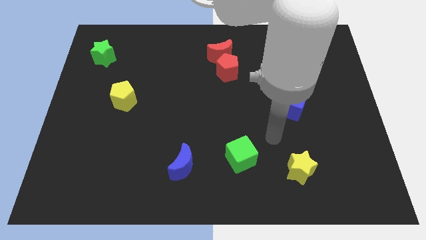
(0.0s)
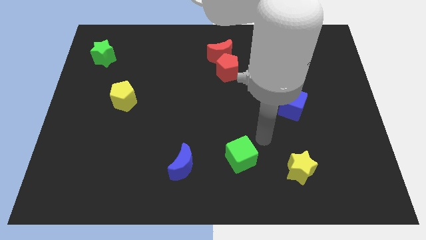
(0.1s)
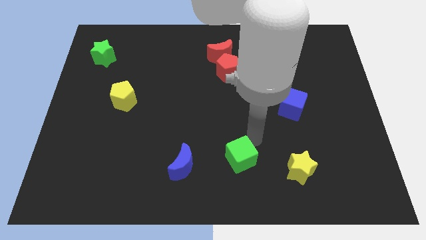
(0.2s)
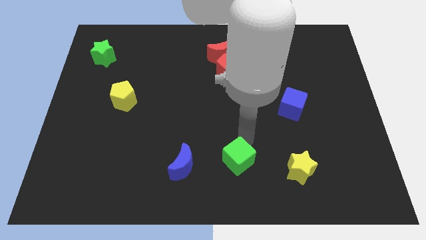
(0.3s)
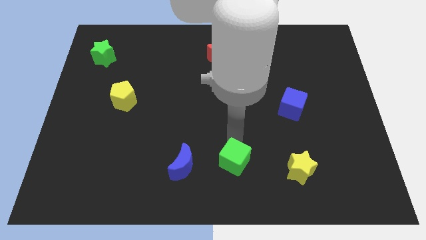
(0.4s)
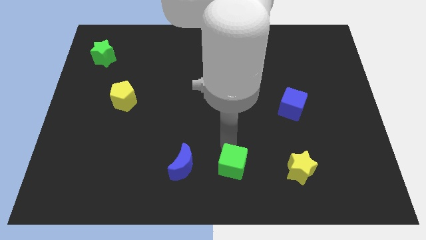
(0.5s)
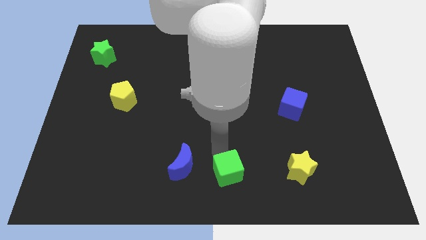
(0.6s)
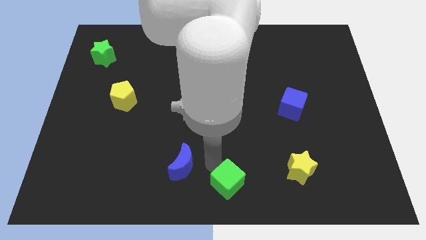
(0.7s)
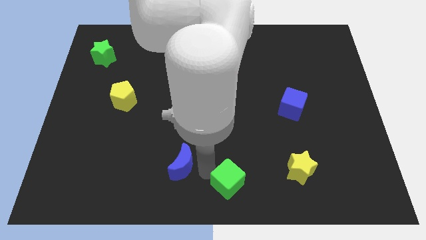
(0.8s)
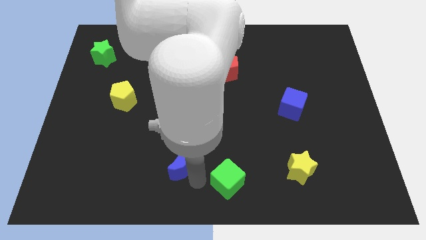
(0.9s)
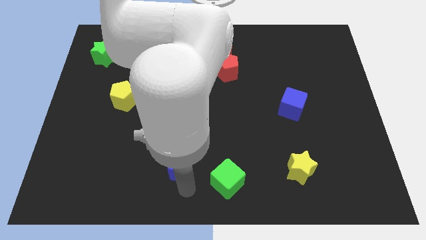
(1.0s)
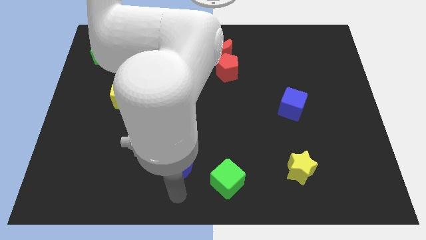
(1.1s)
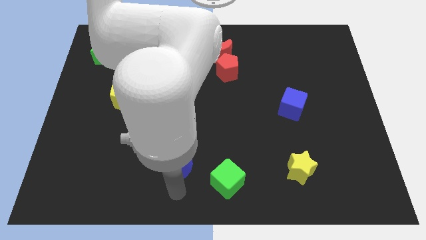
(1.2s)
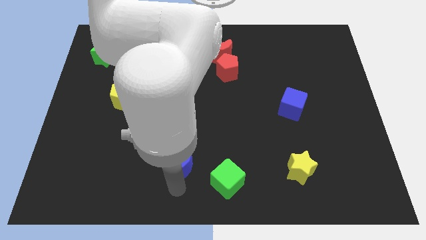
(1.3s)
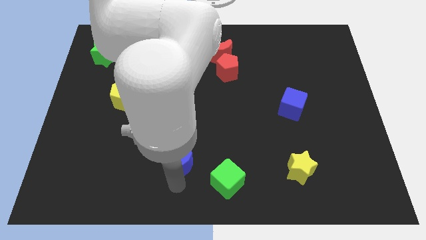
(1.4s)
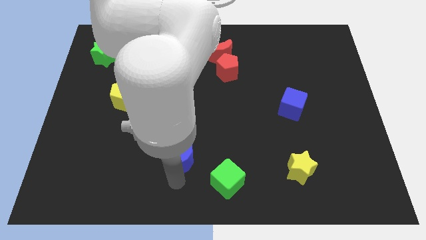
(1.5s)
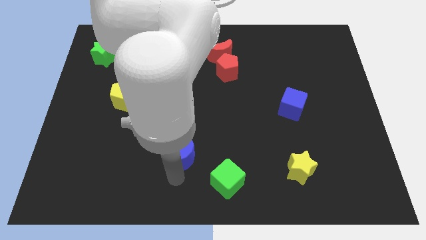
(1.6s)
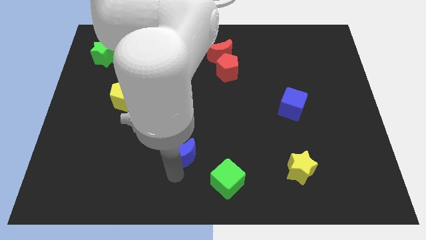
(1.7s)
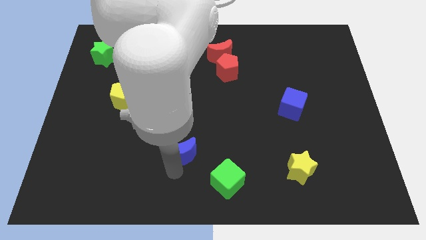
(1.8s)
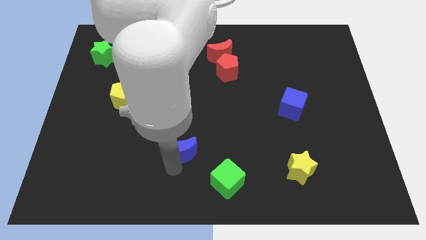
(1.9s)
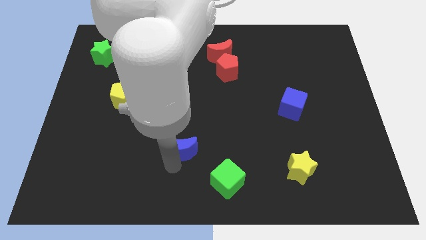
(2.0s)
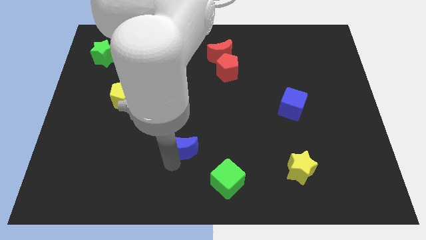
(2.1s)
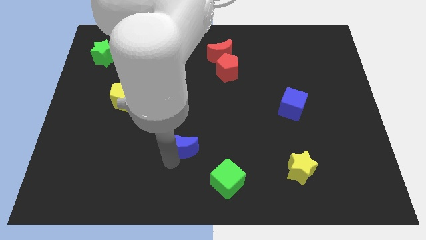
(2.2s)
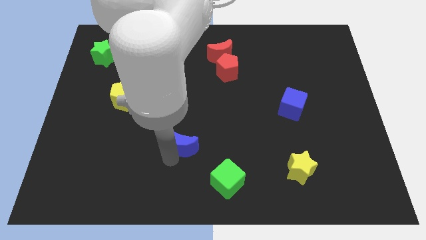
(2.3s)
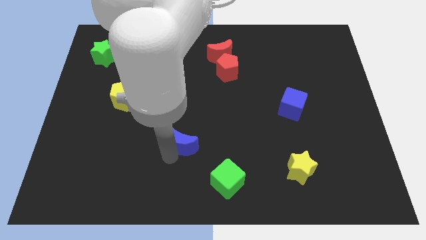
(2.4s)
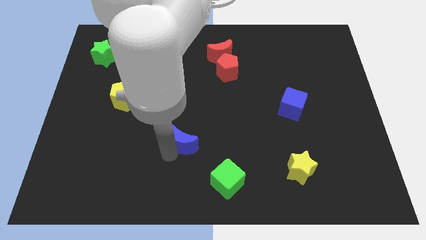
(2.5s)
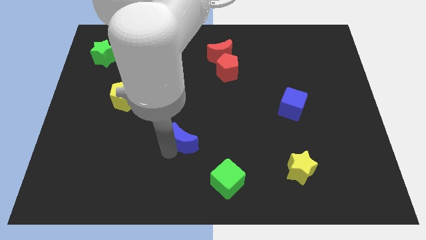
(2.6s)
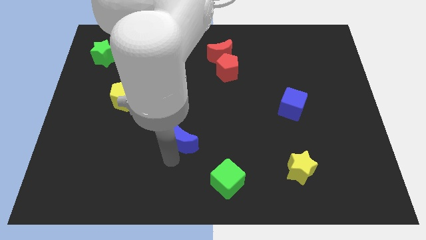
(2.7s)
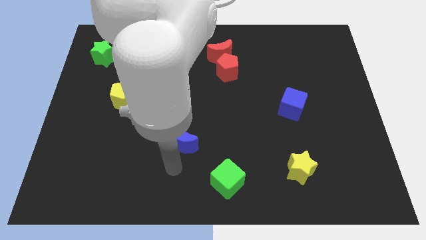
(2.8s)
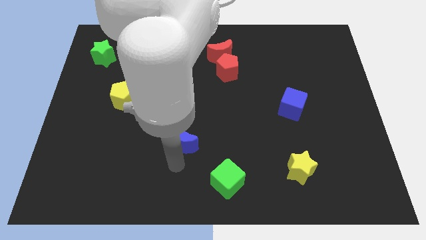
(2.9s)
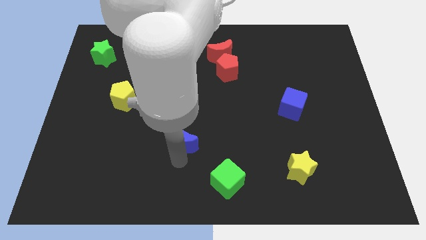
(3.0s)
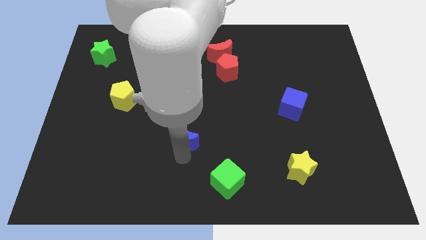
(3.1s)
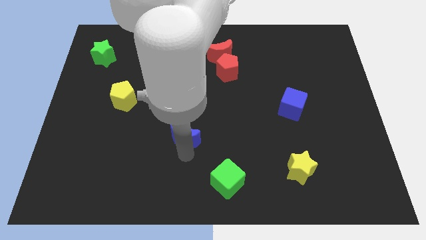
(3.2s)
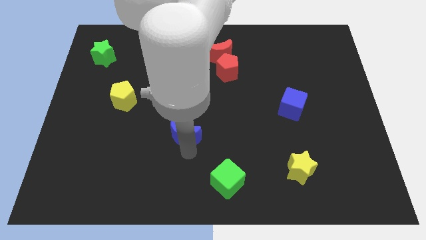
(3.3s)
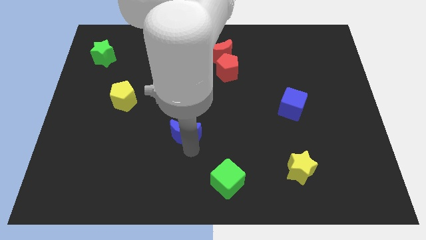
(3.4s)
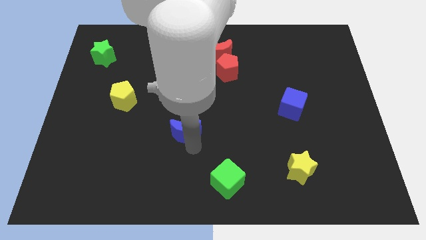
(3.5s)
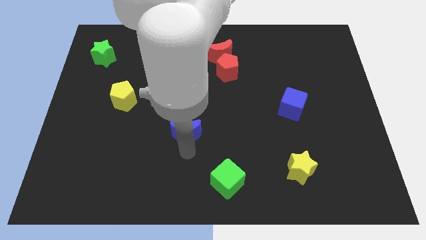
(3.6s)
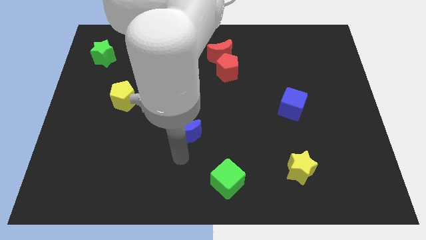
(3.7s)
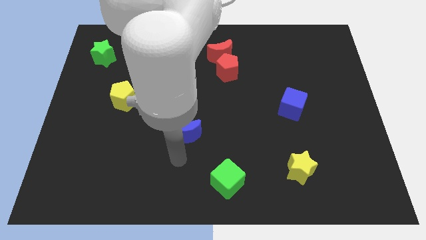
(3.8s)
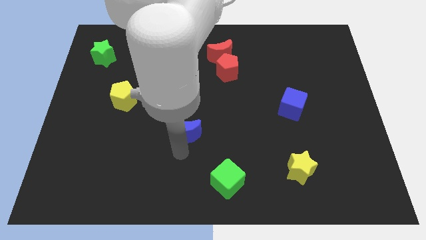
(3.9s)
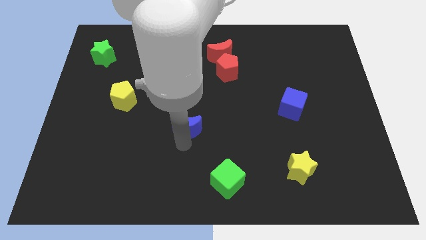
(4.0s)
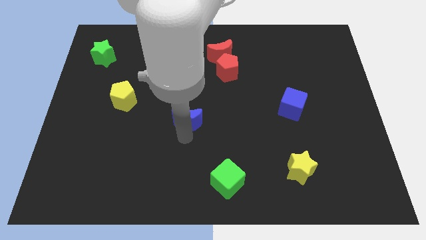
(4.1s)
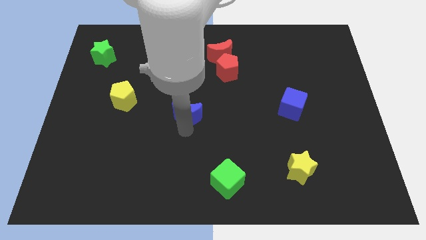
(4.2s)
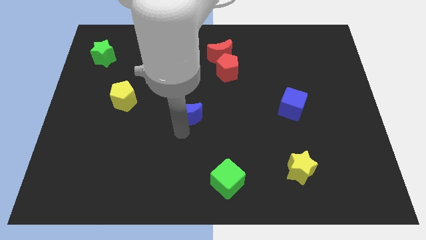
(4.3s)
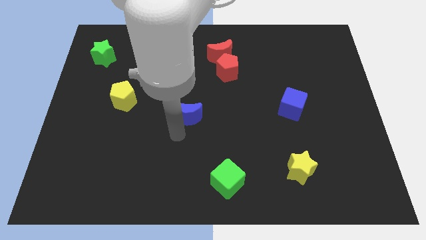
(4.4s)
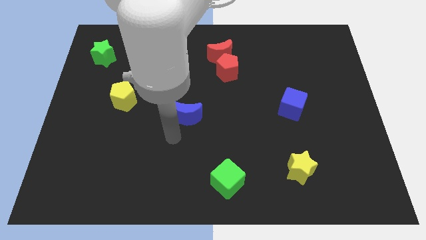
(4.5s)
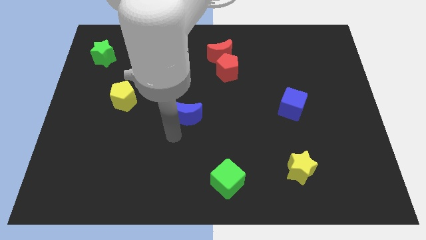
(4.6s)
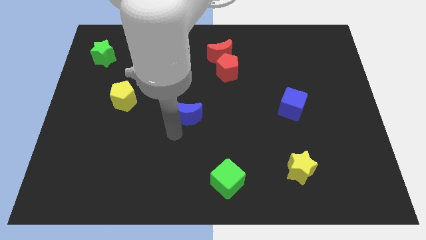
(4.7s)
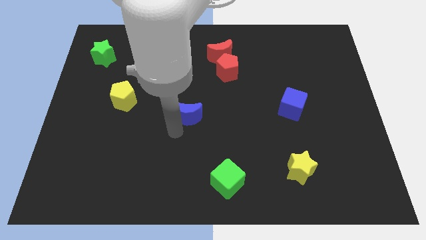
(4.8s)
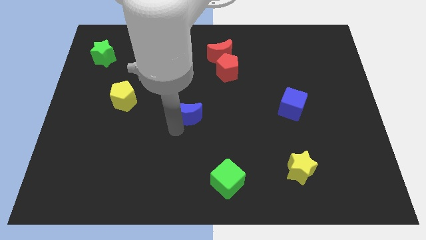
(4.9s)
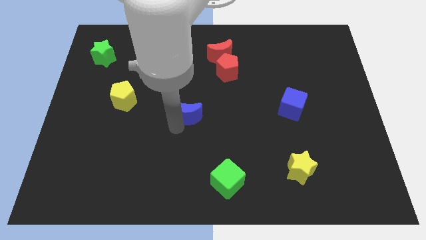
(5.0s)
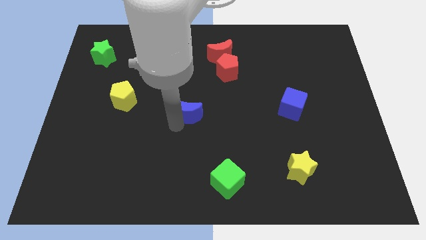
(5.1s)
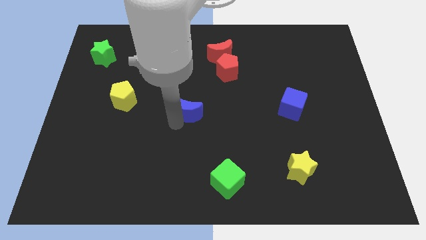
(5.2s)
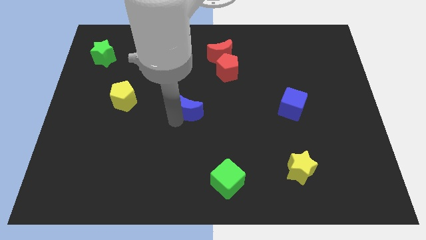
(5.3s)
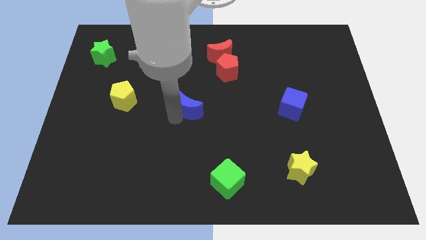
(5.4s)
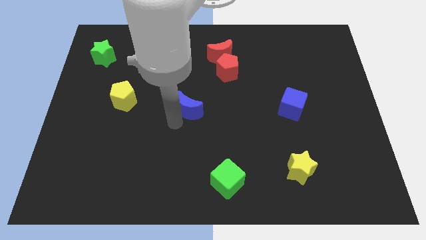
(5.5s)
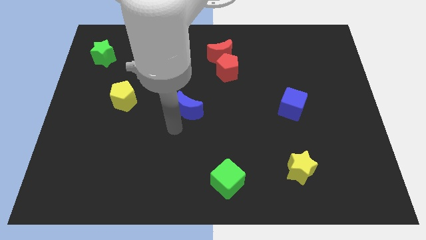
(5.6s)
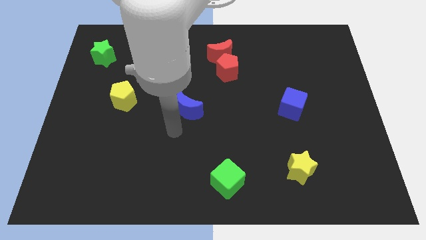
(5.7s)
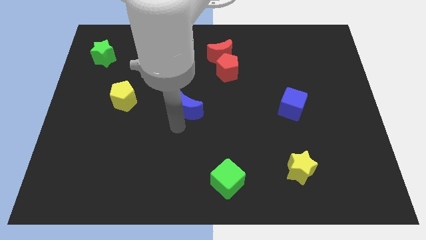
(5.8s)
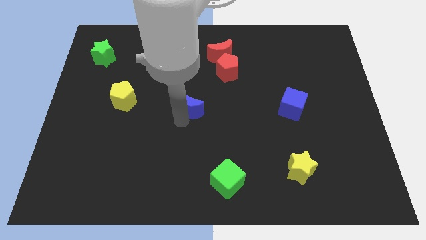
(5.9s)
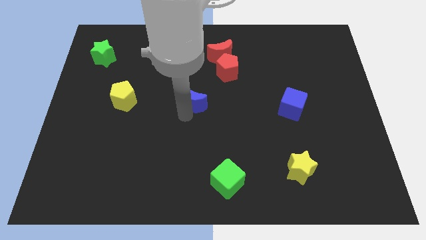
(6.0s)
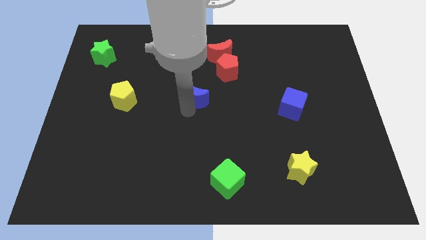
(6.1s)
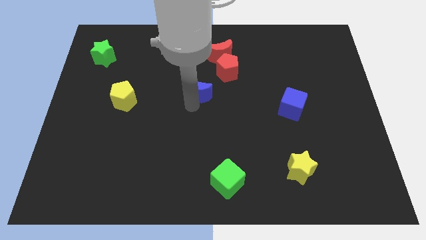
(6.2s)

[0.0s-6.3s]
push the blue moon up

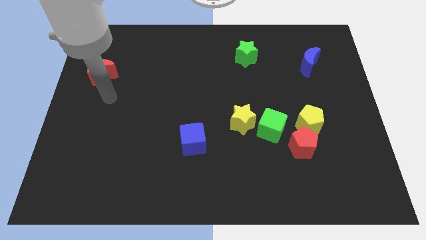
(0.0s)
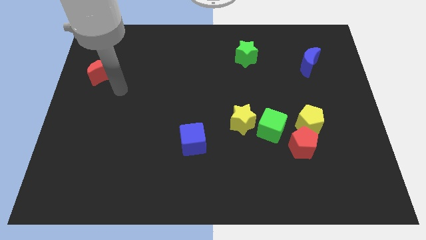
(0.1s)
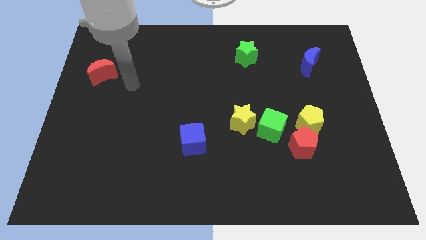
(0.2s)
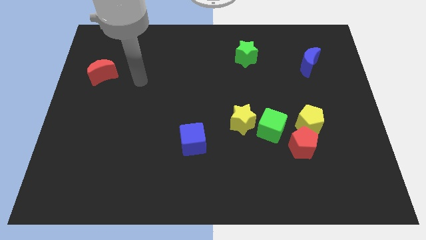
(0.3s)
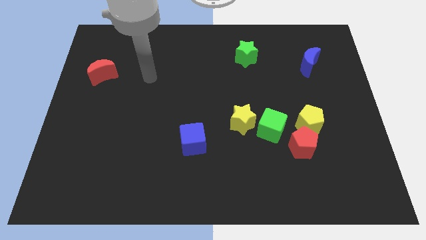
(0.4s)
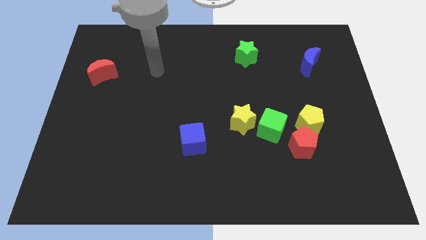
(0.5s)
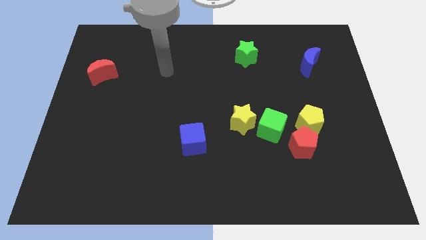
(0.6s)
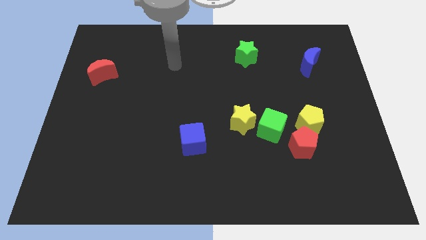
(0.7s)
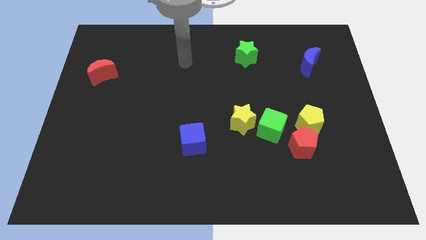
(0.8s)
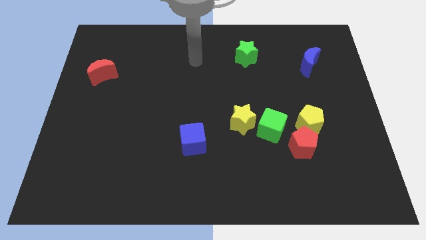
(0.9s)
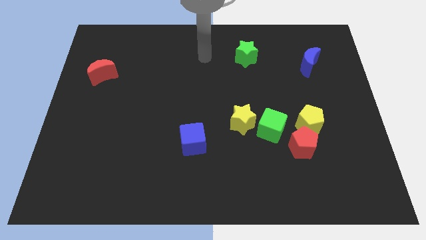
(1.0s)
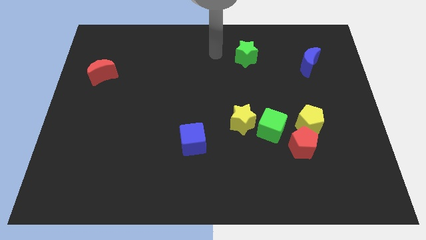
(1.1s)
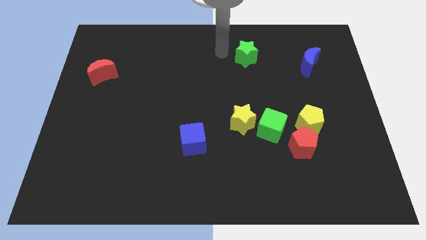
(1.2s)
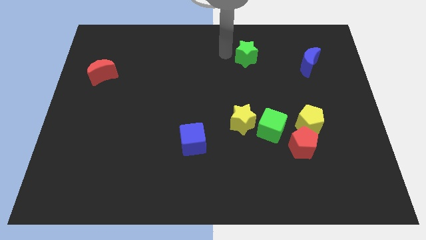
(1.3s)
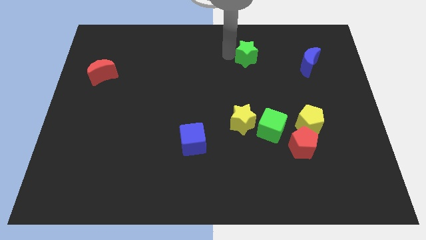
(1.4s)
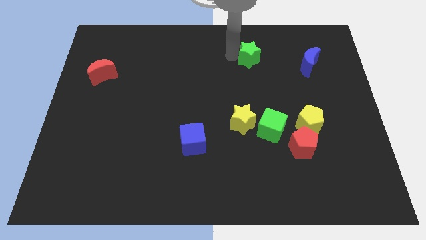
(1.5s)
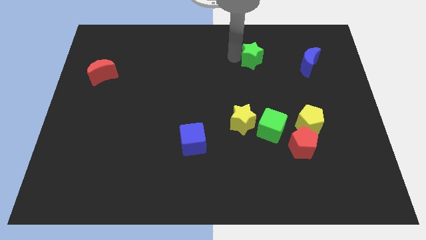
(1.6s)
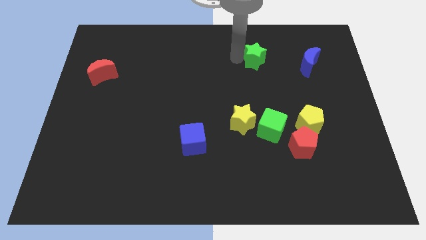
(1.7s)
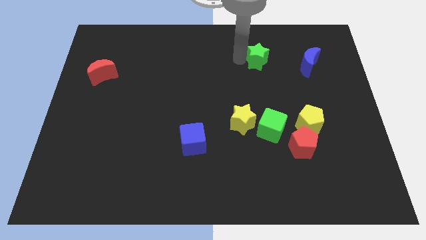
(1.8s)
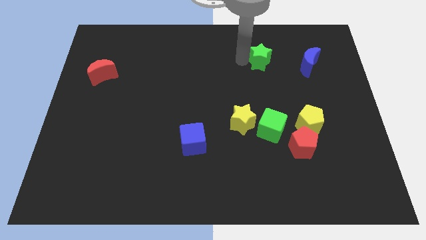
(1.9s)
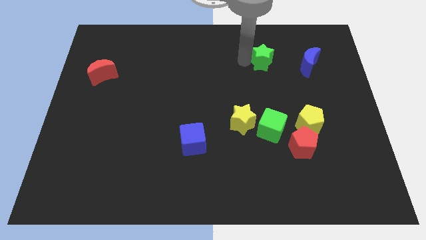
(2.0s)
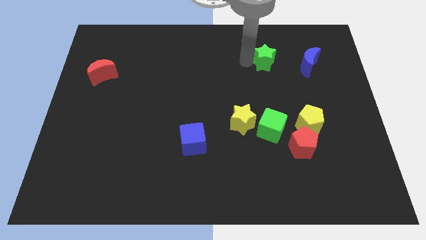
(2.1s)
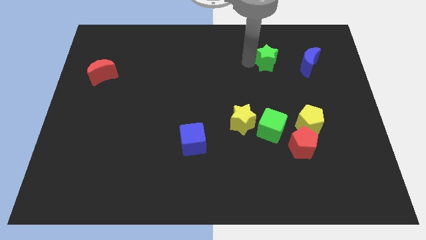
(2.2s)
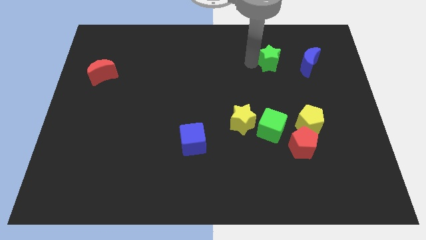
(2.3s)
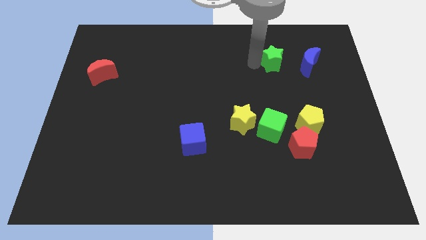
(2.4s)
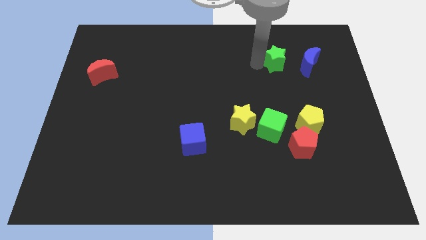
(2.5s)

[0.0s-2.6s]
slide the green star right a bit
